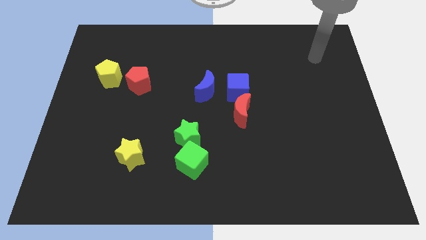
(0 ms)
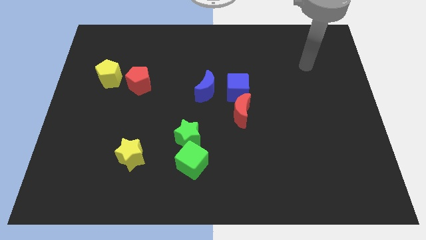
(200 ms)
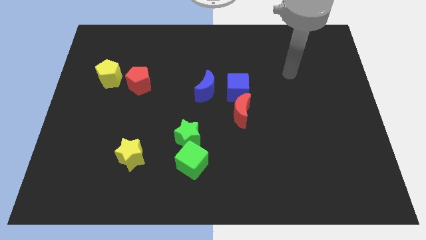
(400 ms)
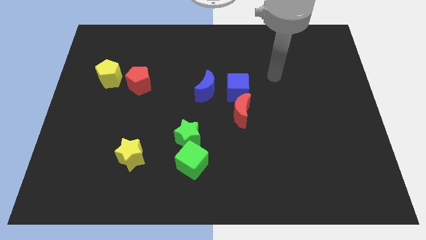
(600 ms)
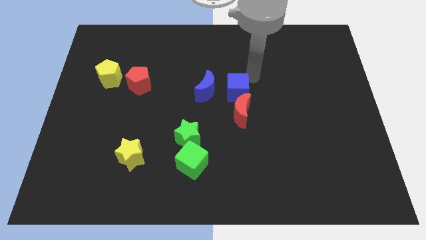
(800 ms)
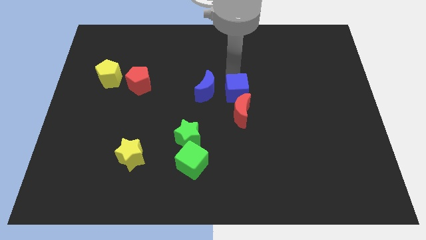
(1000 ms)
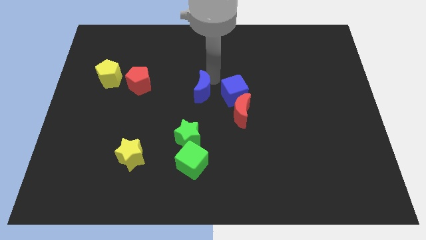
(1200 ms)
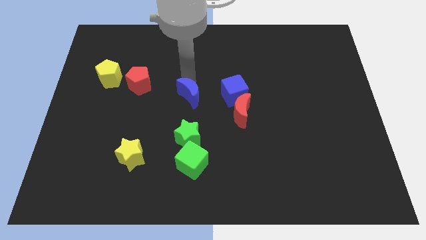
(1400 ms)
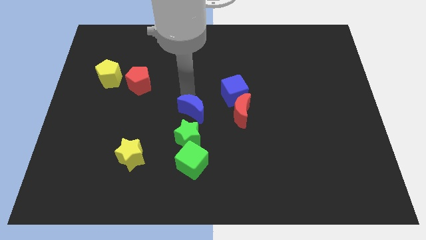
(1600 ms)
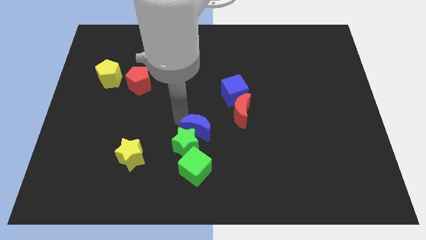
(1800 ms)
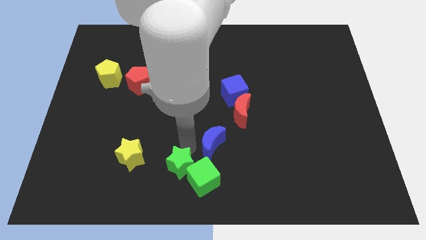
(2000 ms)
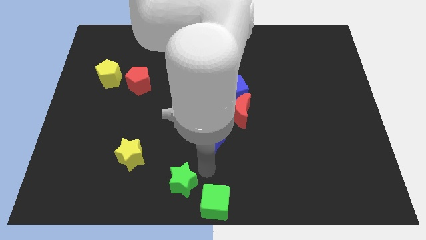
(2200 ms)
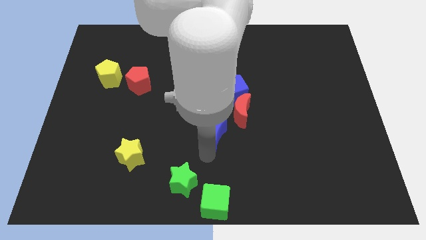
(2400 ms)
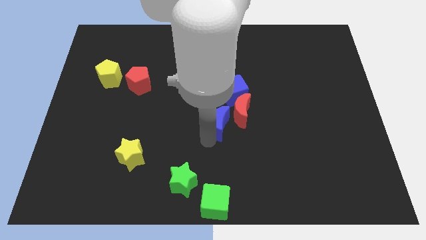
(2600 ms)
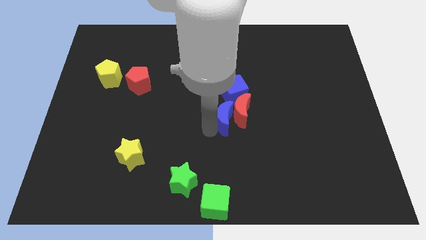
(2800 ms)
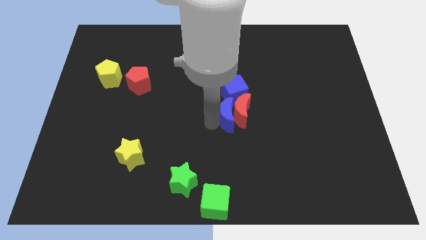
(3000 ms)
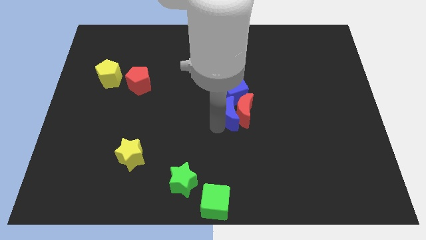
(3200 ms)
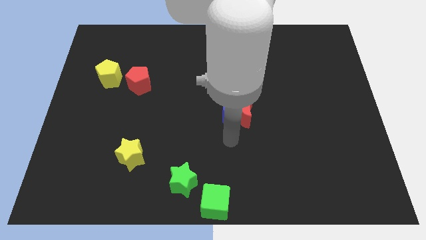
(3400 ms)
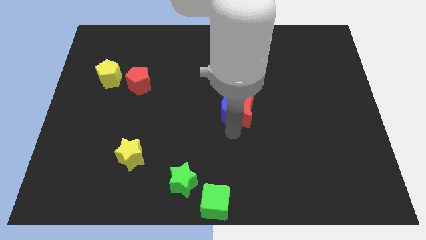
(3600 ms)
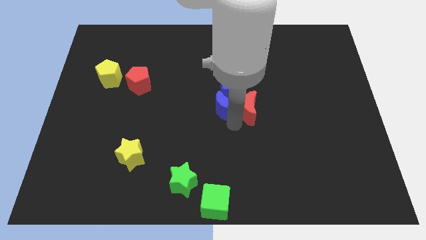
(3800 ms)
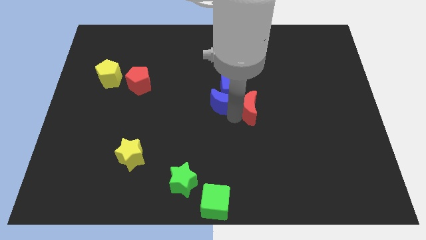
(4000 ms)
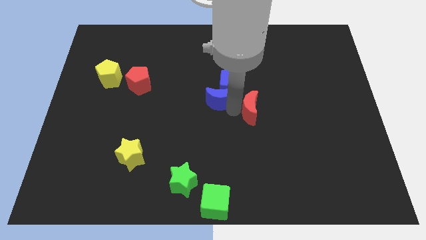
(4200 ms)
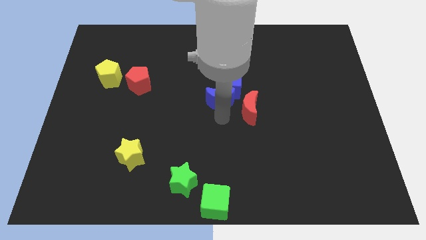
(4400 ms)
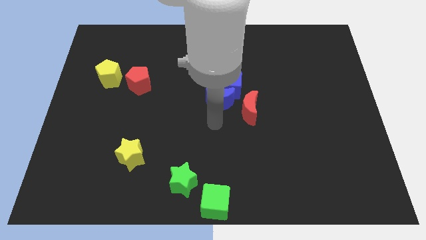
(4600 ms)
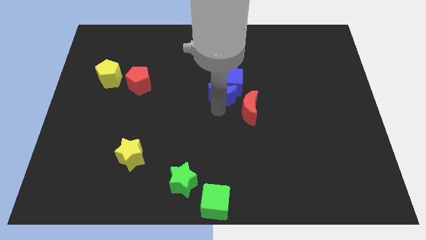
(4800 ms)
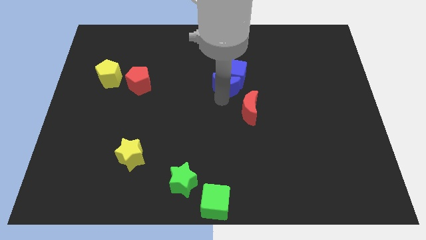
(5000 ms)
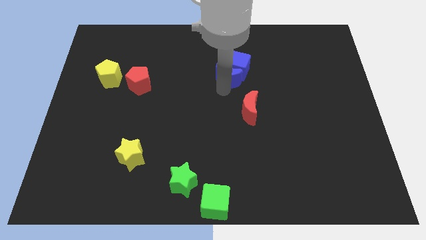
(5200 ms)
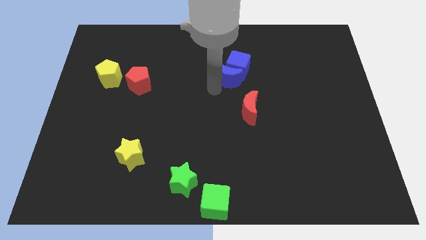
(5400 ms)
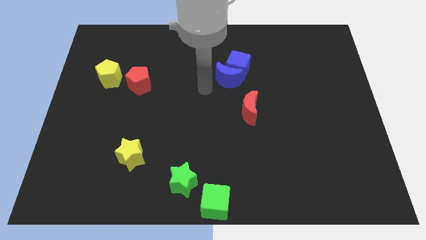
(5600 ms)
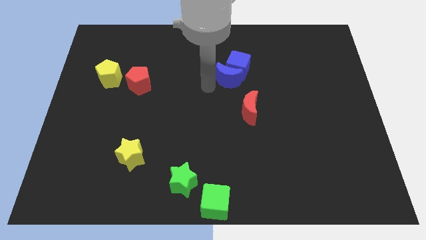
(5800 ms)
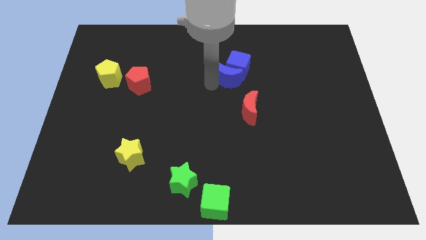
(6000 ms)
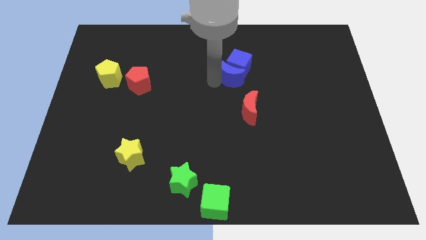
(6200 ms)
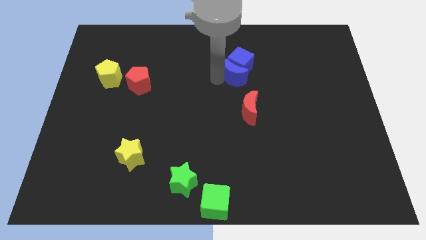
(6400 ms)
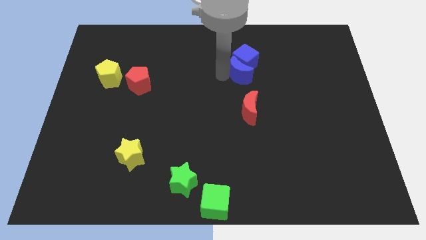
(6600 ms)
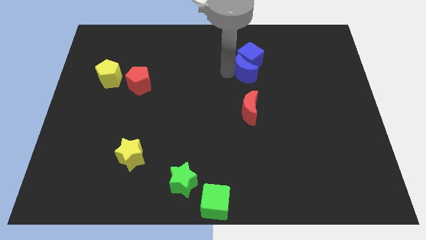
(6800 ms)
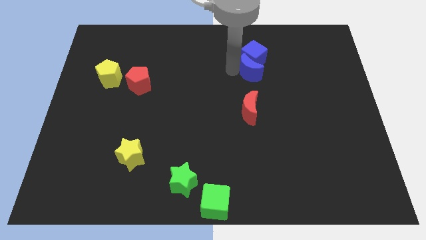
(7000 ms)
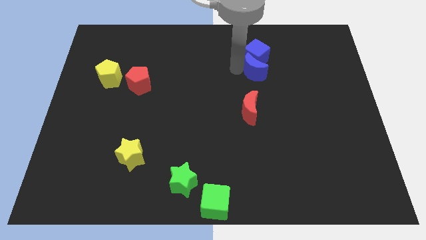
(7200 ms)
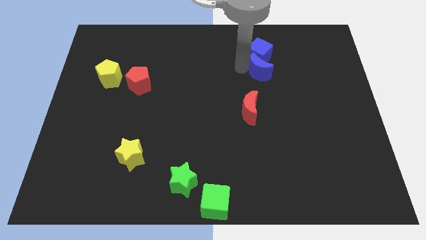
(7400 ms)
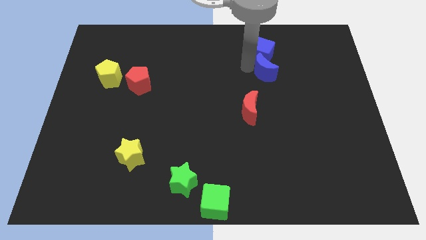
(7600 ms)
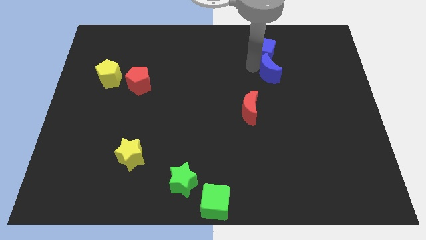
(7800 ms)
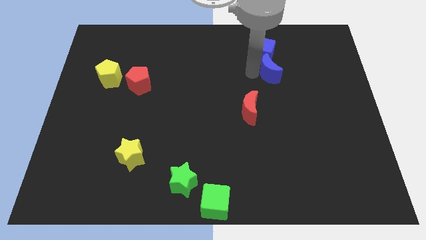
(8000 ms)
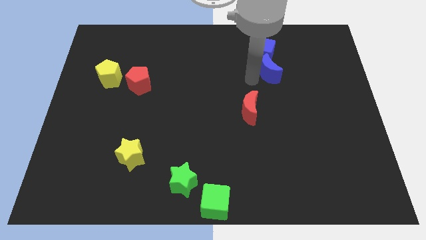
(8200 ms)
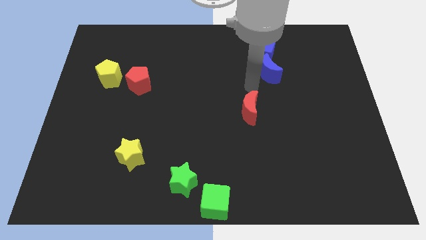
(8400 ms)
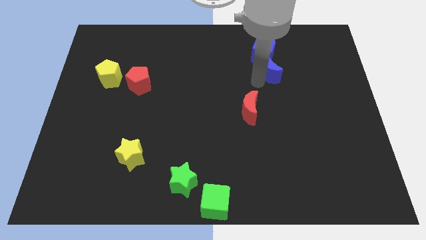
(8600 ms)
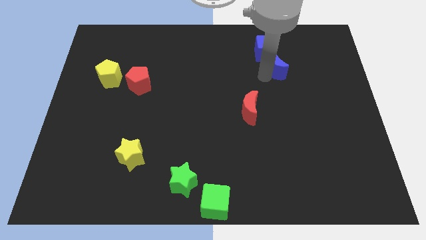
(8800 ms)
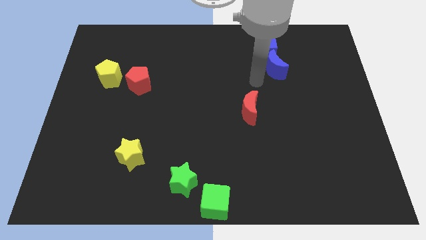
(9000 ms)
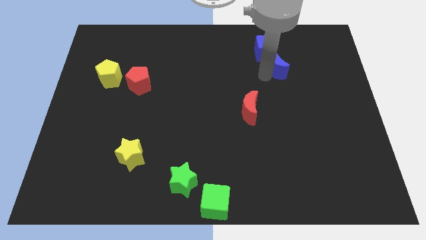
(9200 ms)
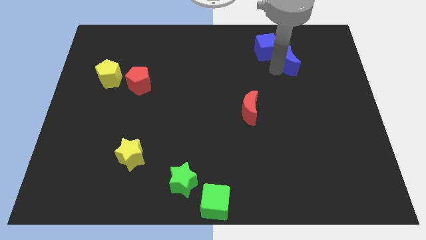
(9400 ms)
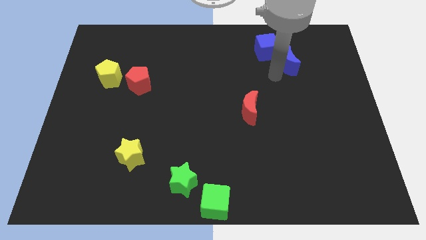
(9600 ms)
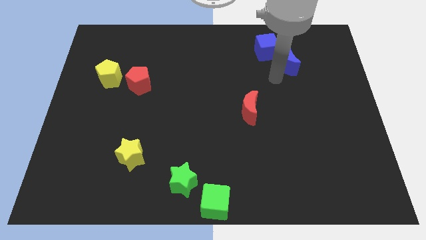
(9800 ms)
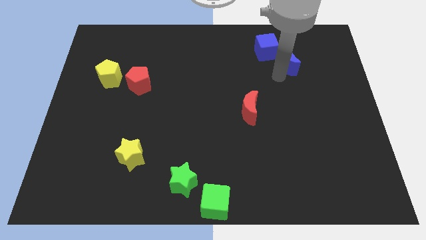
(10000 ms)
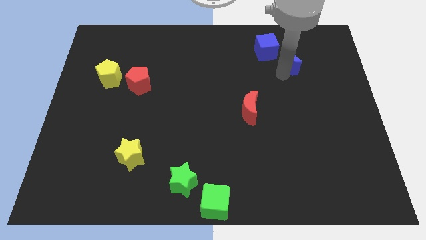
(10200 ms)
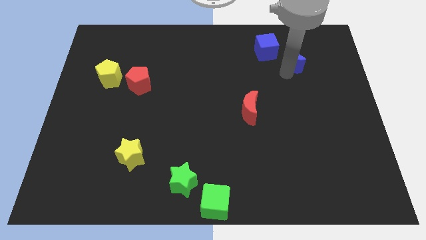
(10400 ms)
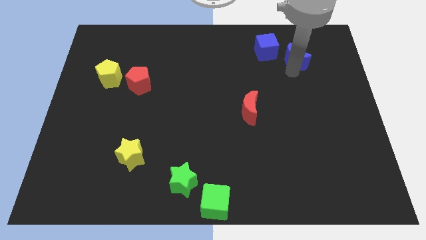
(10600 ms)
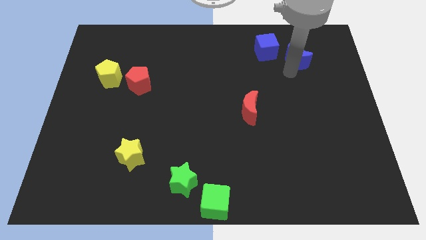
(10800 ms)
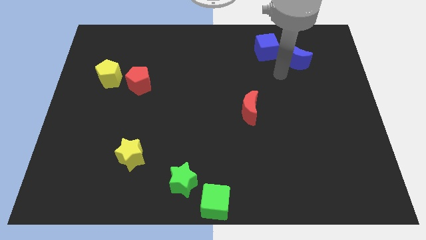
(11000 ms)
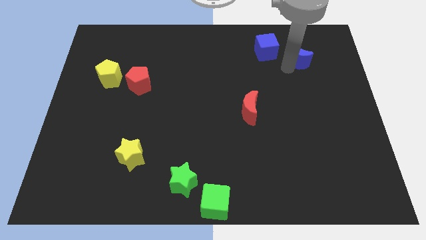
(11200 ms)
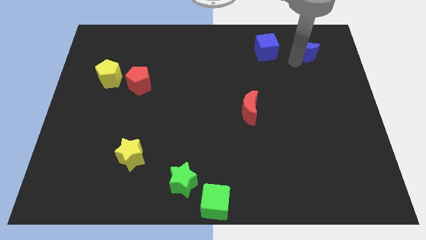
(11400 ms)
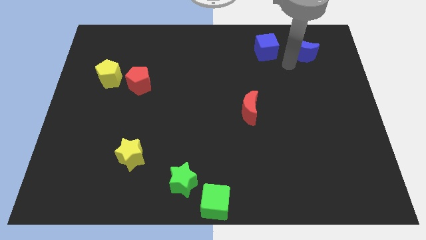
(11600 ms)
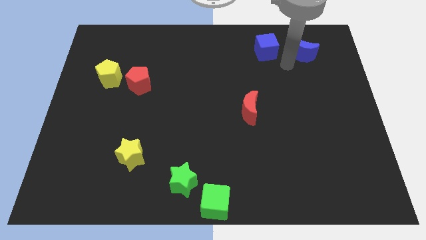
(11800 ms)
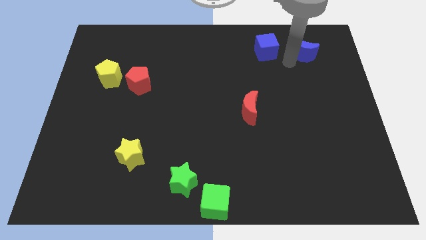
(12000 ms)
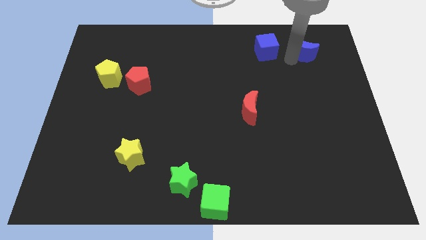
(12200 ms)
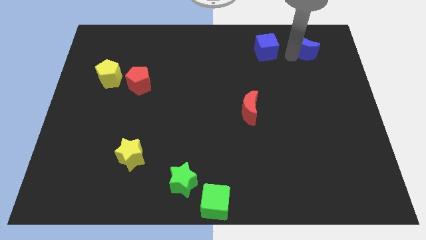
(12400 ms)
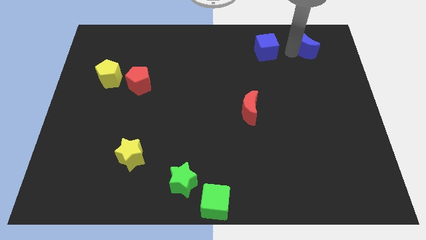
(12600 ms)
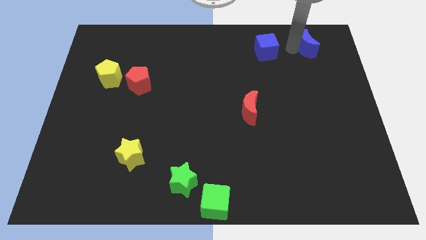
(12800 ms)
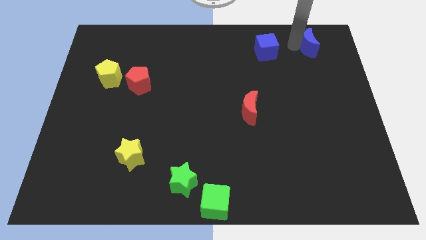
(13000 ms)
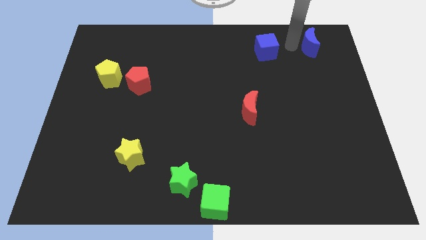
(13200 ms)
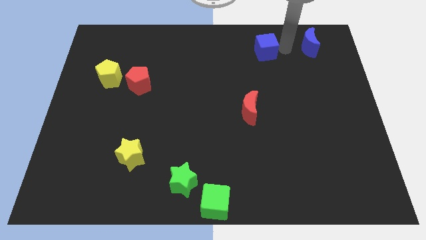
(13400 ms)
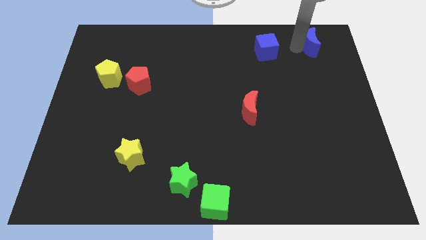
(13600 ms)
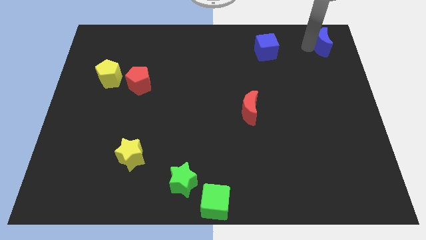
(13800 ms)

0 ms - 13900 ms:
move the blue moon to the top right
